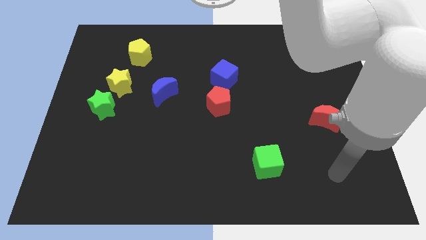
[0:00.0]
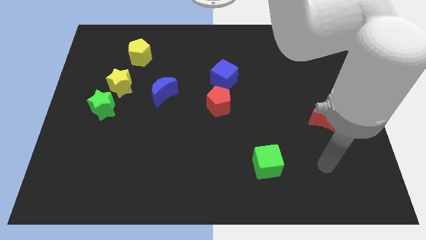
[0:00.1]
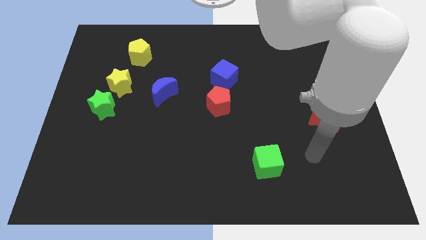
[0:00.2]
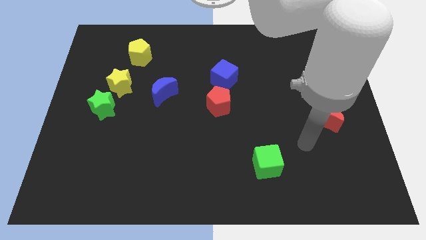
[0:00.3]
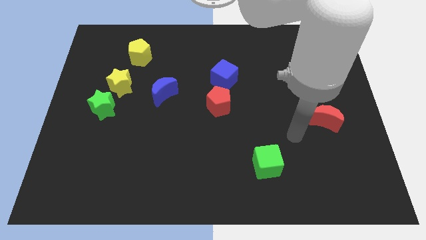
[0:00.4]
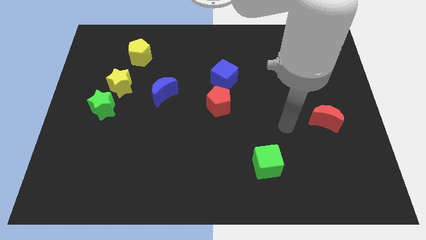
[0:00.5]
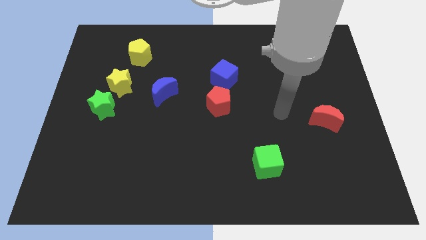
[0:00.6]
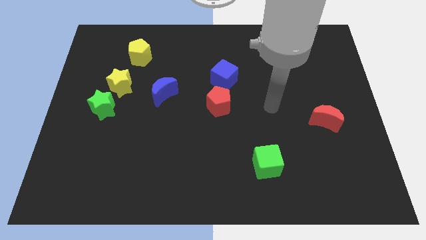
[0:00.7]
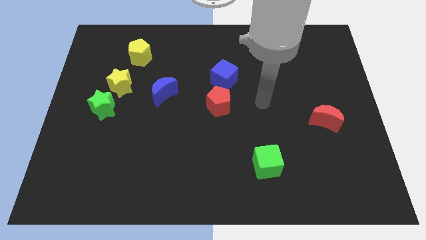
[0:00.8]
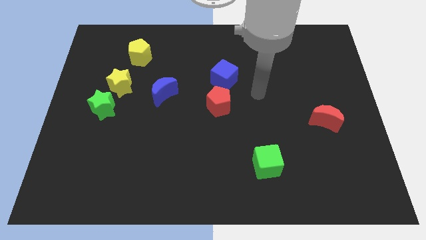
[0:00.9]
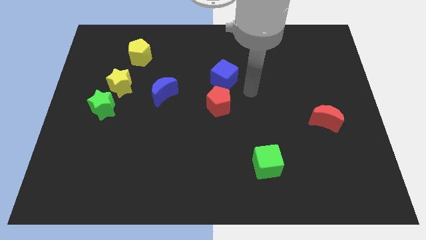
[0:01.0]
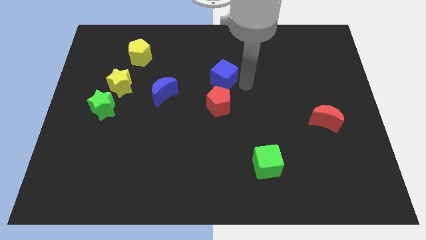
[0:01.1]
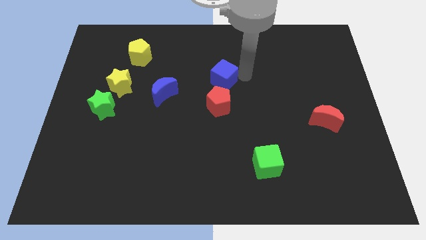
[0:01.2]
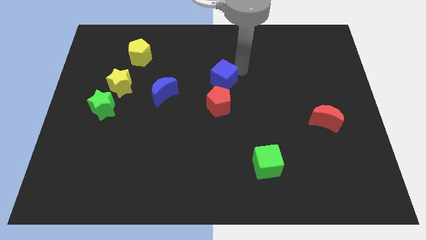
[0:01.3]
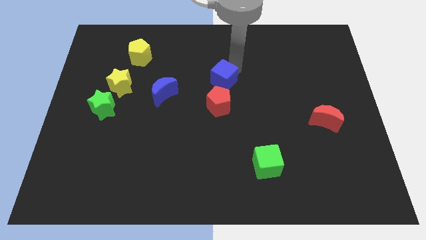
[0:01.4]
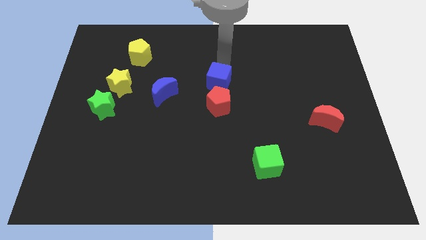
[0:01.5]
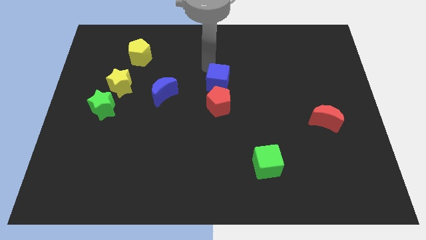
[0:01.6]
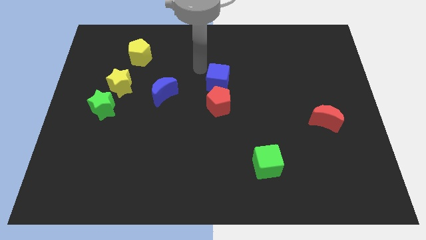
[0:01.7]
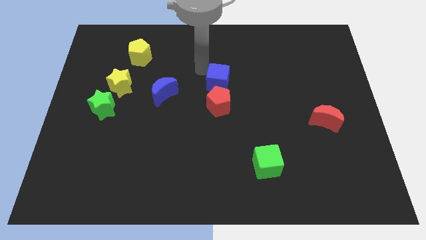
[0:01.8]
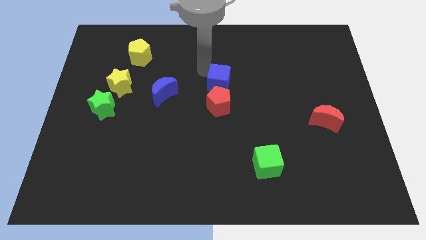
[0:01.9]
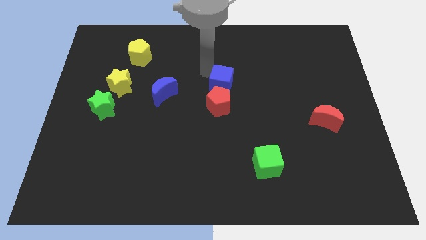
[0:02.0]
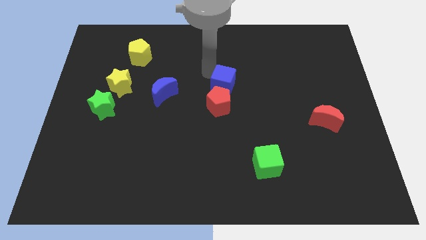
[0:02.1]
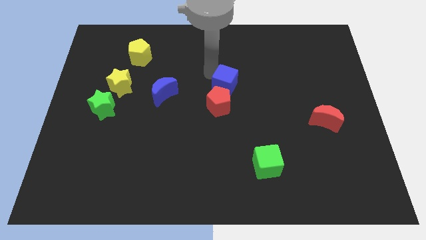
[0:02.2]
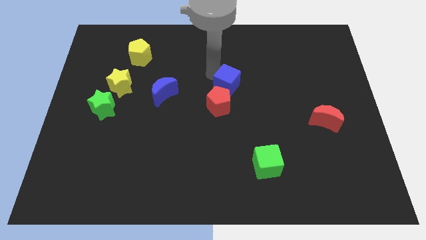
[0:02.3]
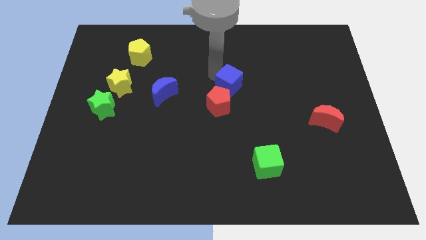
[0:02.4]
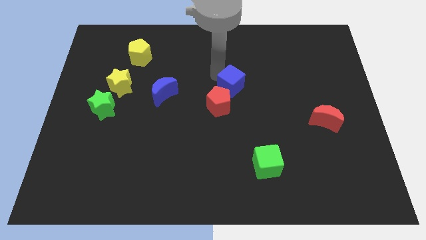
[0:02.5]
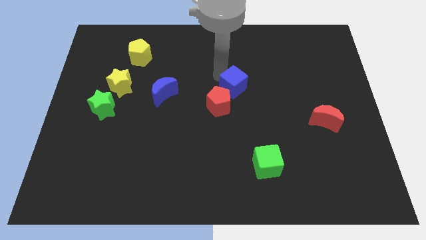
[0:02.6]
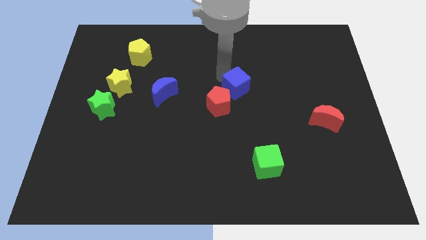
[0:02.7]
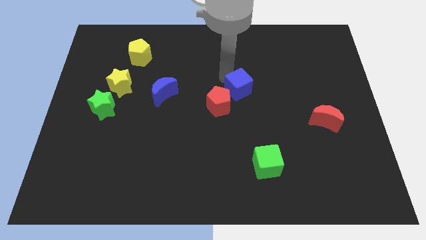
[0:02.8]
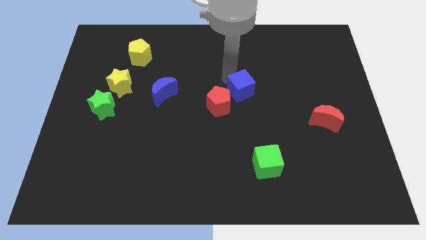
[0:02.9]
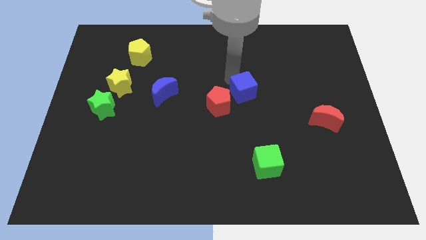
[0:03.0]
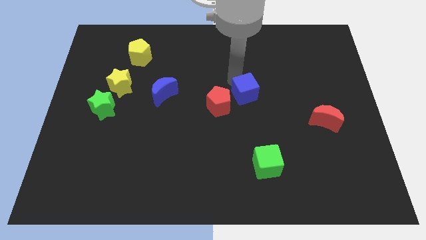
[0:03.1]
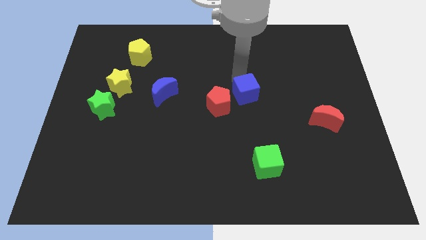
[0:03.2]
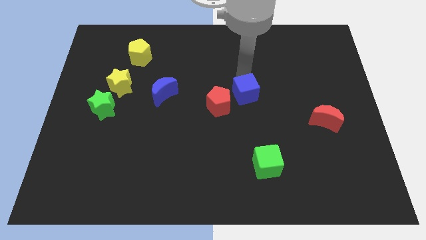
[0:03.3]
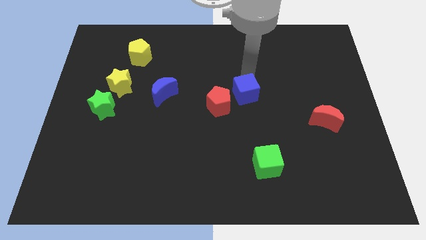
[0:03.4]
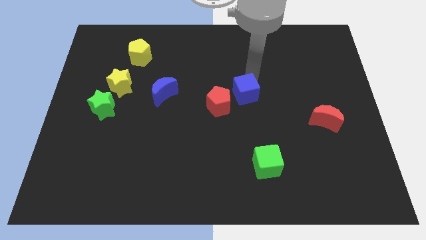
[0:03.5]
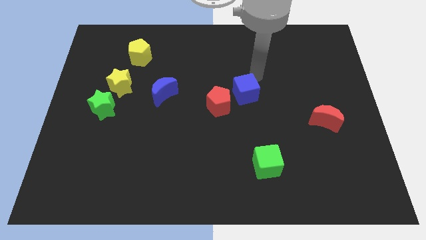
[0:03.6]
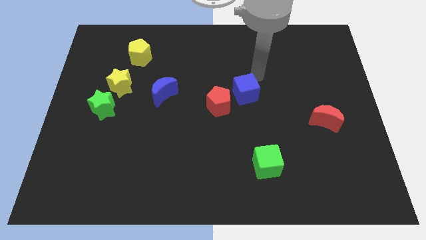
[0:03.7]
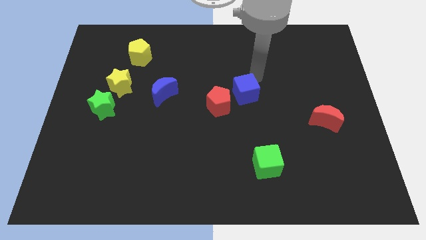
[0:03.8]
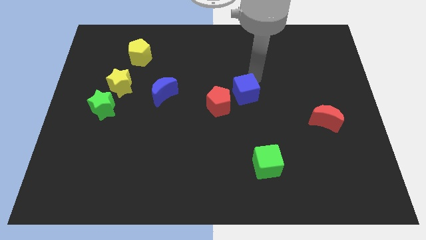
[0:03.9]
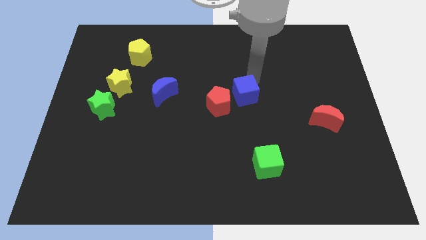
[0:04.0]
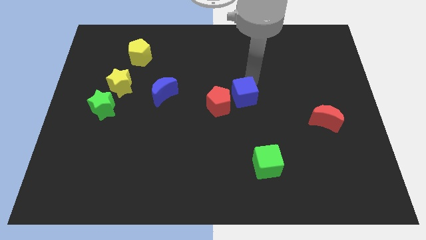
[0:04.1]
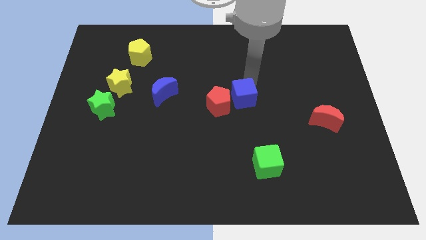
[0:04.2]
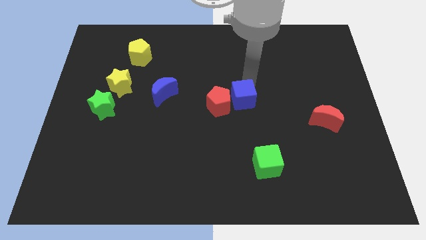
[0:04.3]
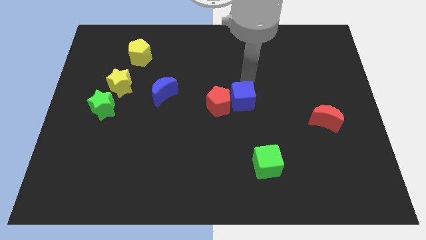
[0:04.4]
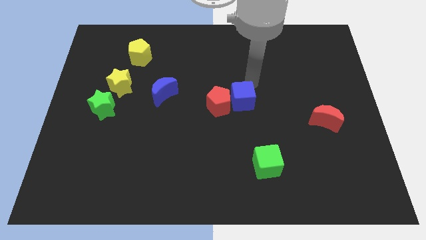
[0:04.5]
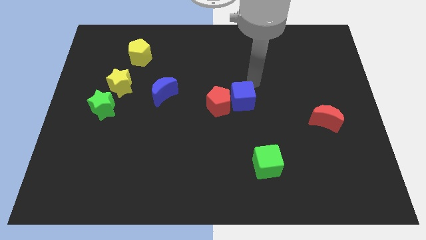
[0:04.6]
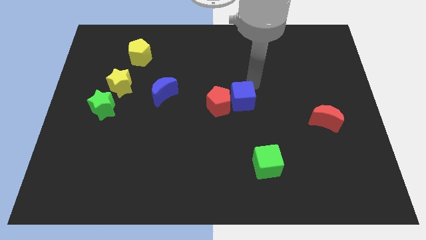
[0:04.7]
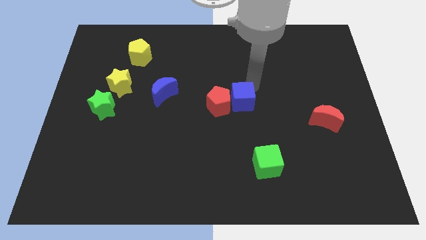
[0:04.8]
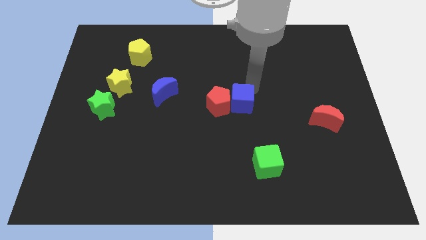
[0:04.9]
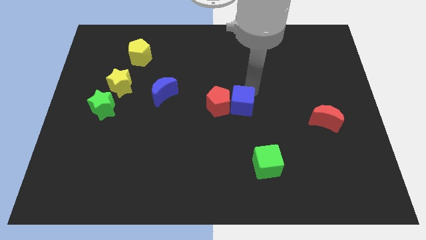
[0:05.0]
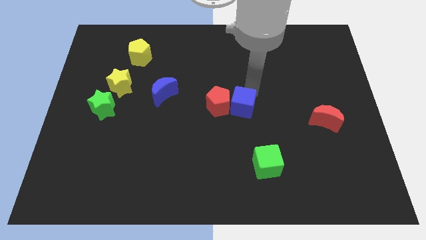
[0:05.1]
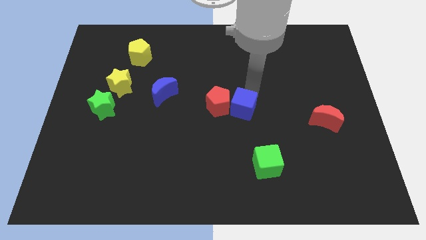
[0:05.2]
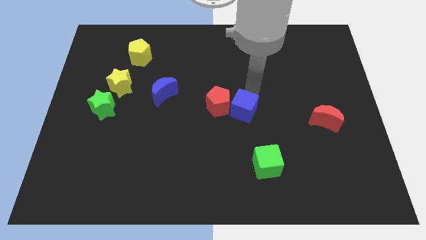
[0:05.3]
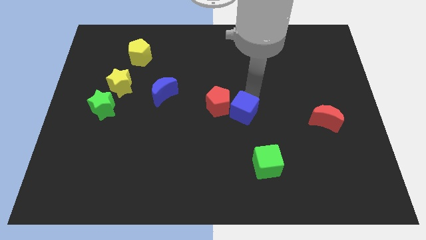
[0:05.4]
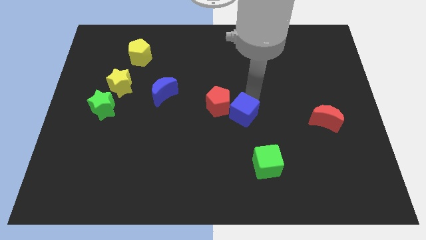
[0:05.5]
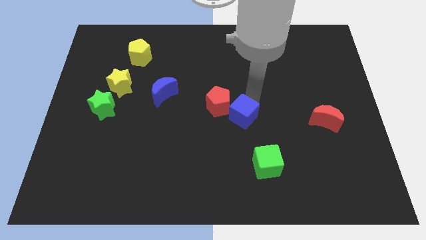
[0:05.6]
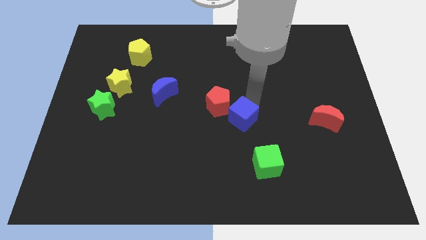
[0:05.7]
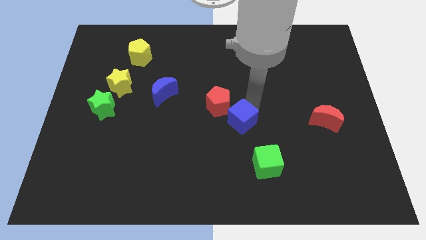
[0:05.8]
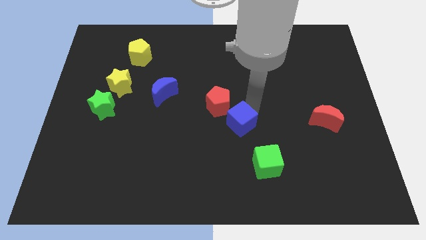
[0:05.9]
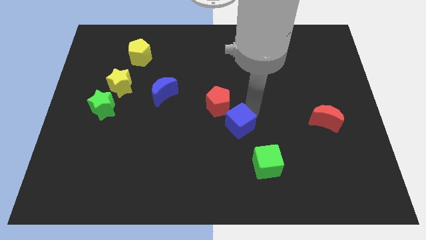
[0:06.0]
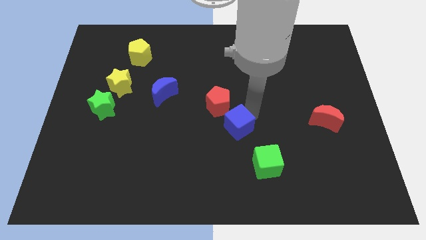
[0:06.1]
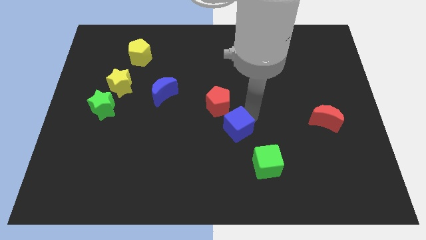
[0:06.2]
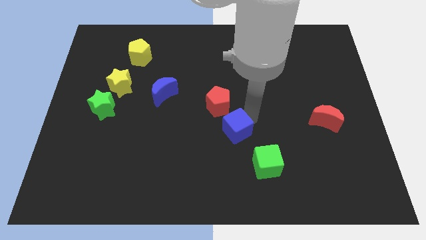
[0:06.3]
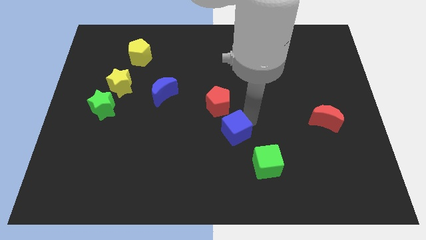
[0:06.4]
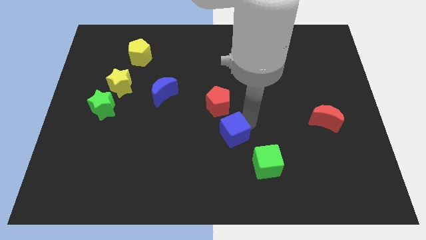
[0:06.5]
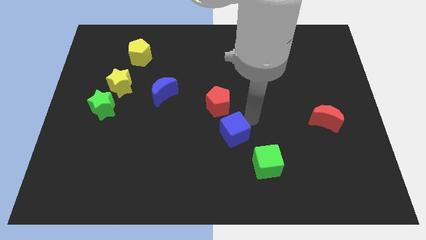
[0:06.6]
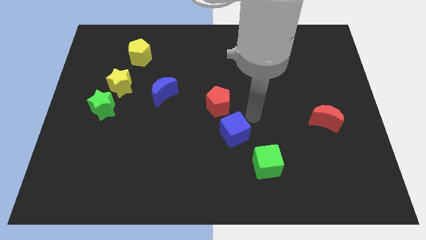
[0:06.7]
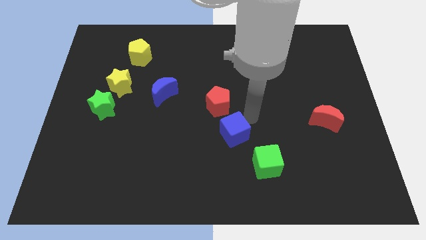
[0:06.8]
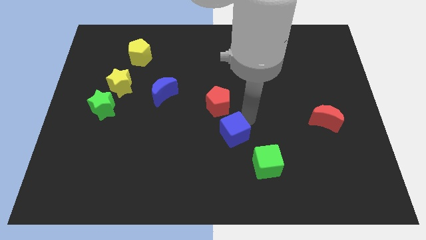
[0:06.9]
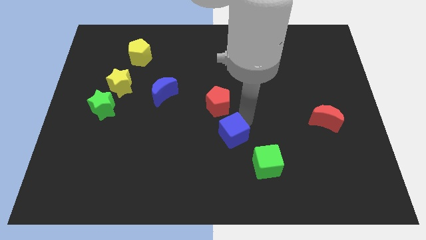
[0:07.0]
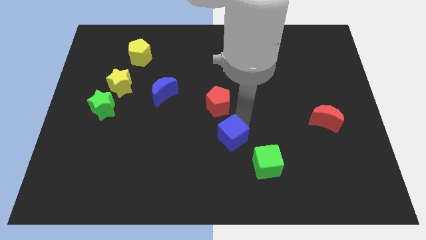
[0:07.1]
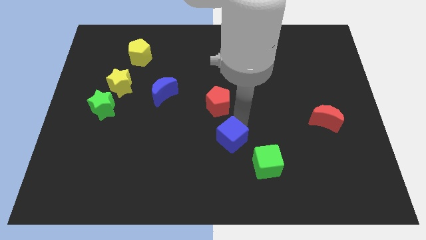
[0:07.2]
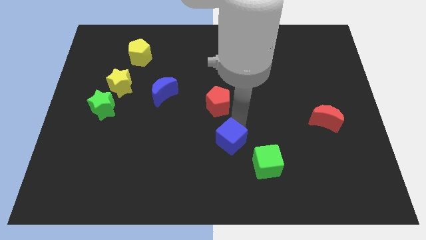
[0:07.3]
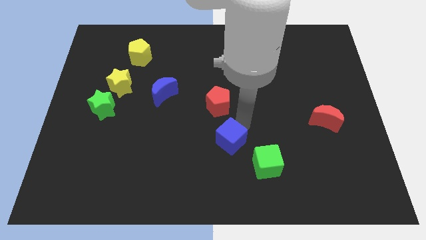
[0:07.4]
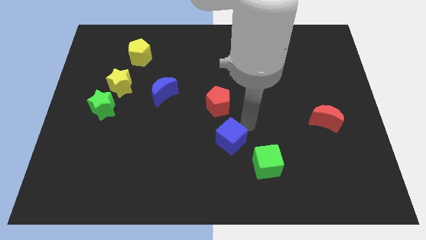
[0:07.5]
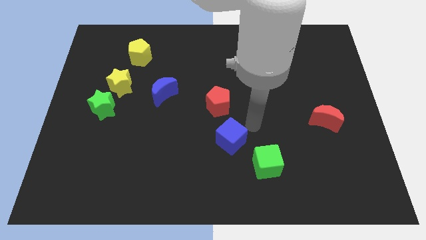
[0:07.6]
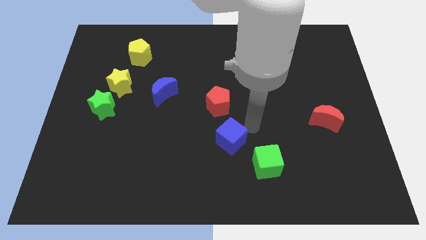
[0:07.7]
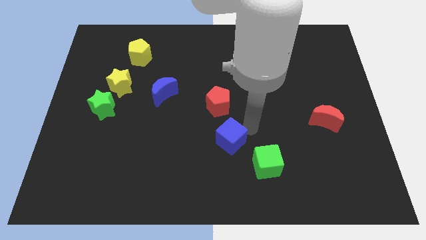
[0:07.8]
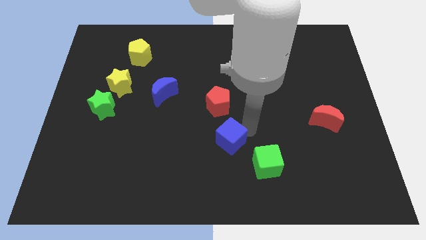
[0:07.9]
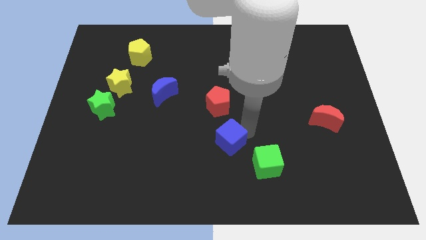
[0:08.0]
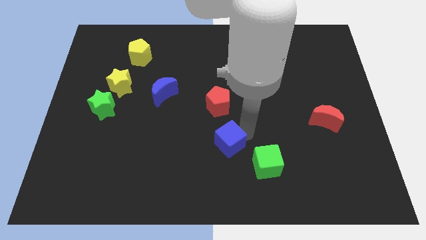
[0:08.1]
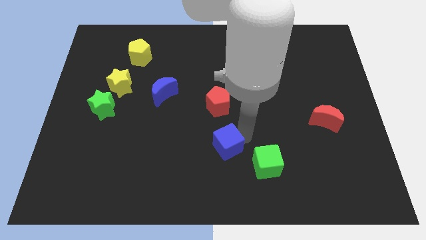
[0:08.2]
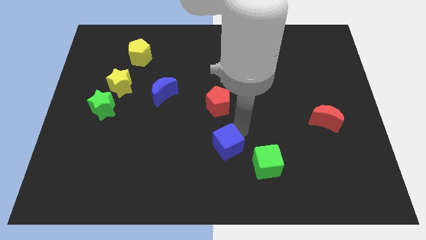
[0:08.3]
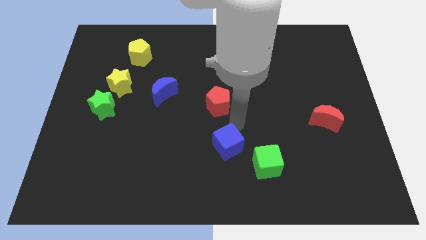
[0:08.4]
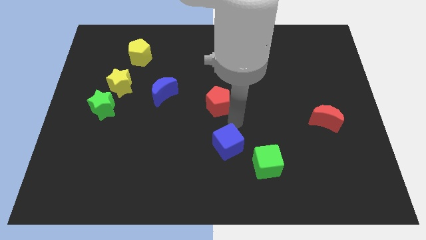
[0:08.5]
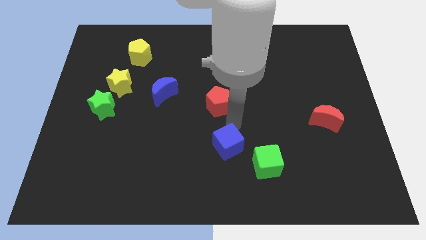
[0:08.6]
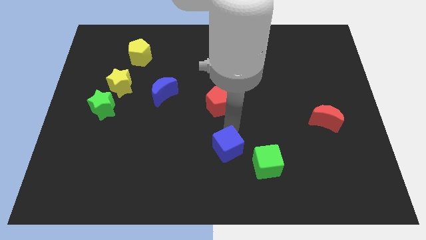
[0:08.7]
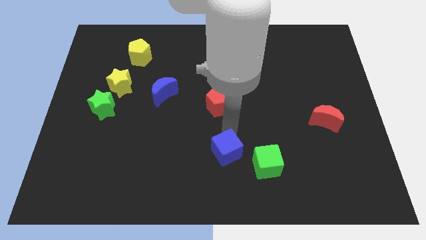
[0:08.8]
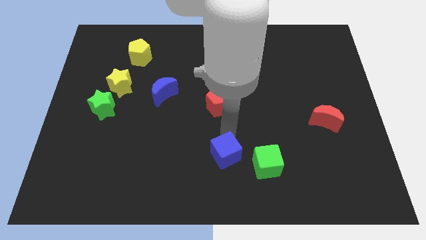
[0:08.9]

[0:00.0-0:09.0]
put the blue cube to the bottom
